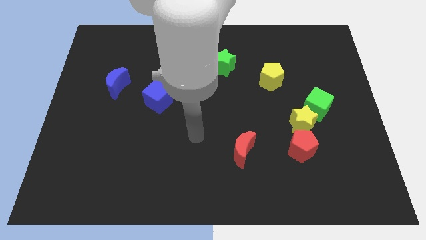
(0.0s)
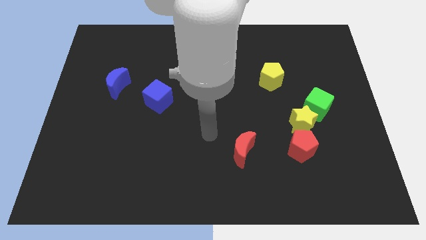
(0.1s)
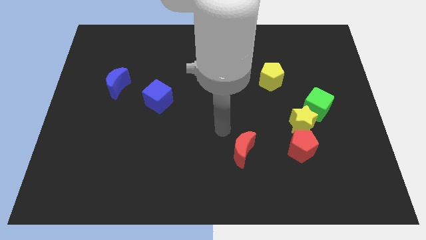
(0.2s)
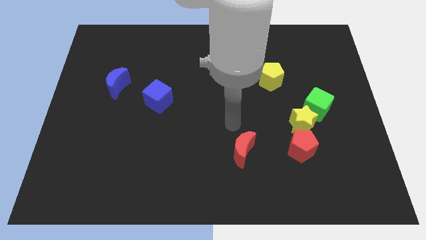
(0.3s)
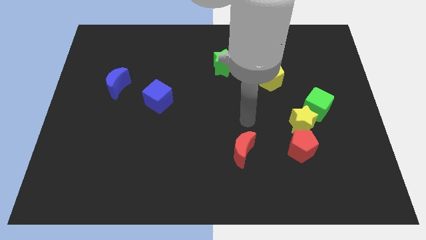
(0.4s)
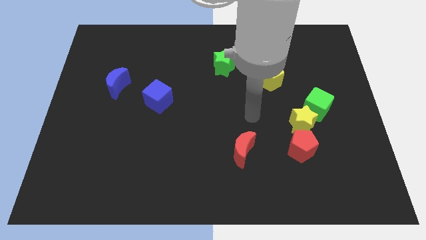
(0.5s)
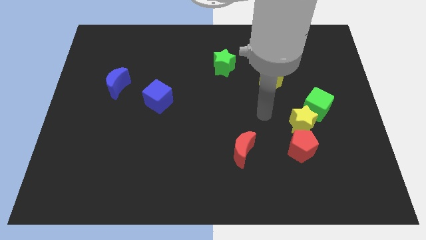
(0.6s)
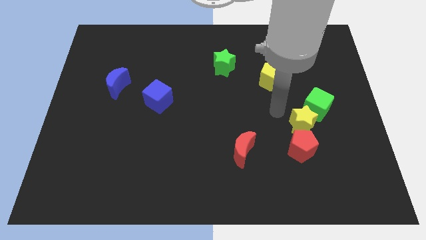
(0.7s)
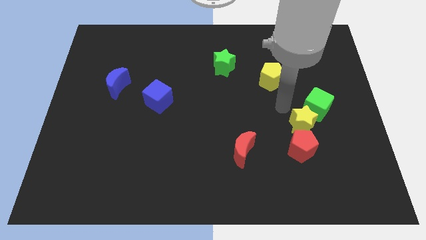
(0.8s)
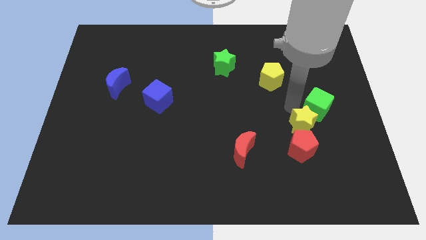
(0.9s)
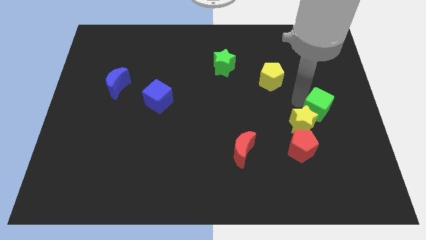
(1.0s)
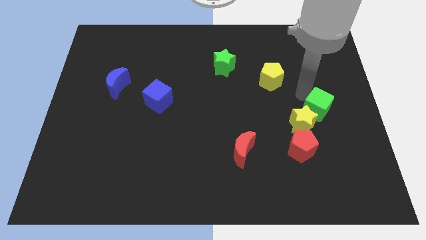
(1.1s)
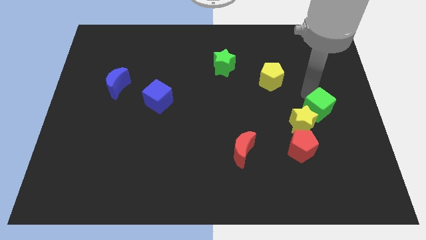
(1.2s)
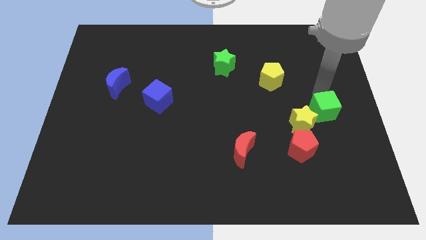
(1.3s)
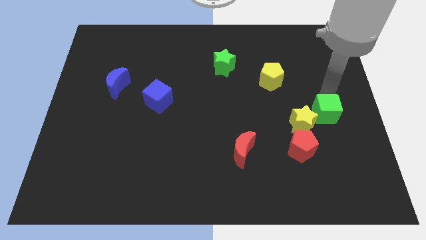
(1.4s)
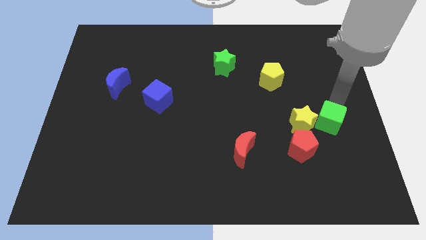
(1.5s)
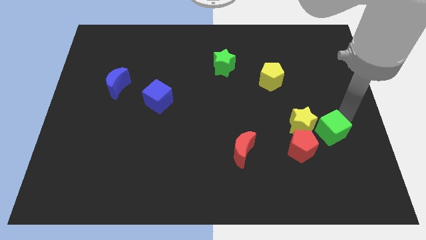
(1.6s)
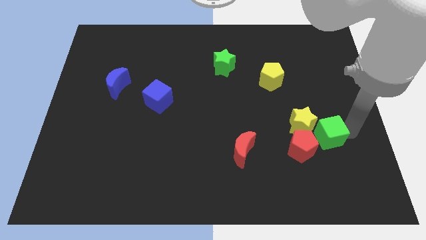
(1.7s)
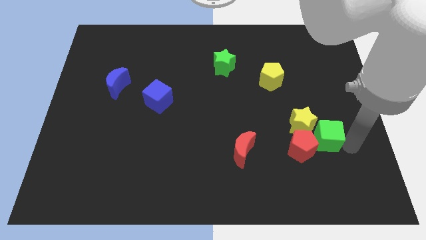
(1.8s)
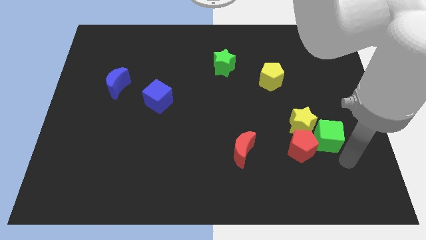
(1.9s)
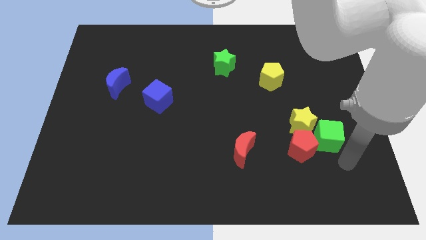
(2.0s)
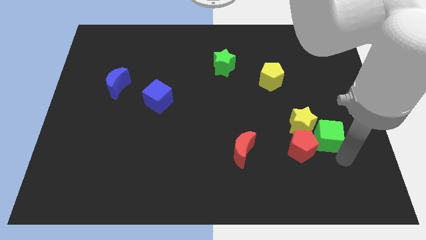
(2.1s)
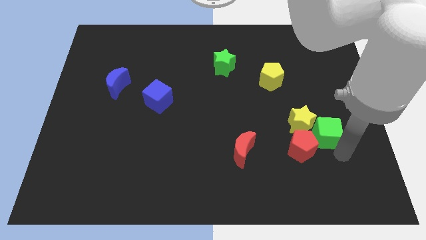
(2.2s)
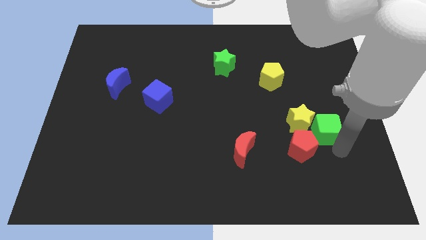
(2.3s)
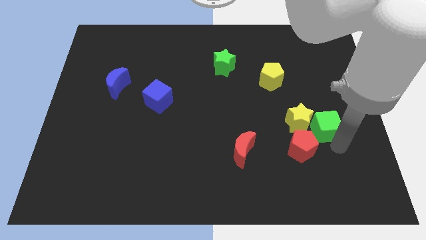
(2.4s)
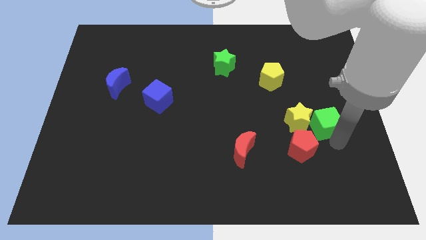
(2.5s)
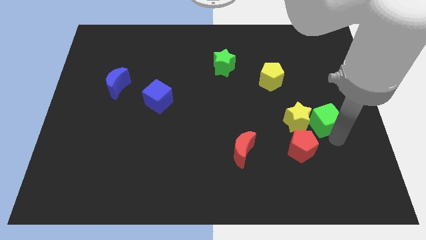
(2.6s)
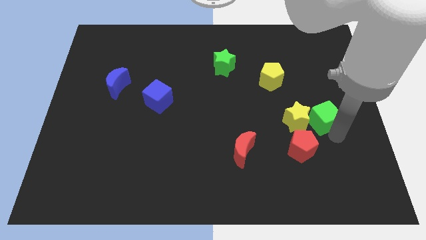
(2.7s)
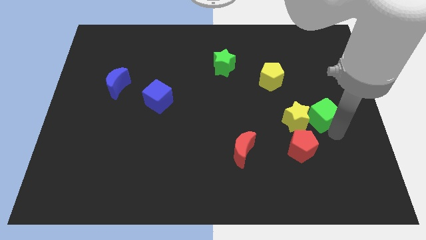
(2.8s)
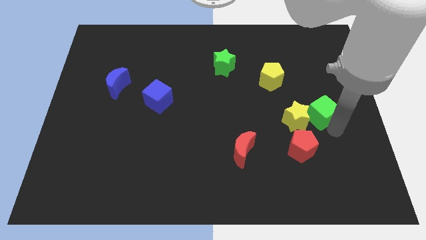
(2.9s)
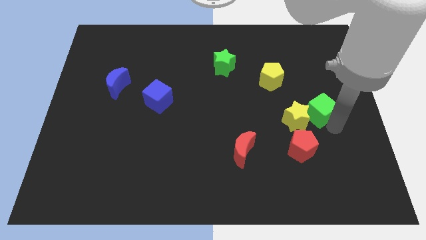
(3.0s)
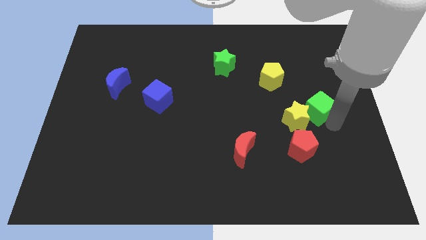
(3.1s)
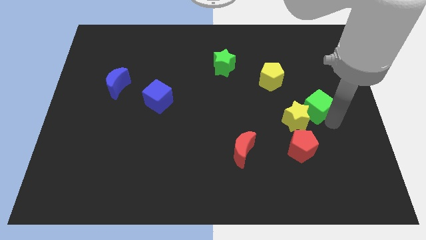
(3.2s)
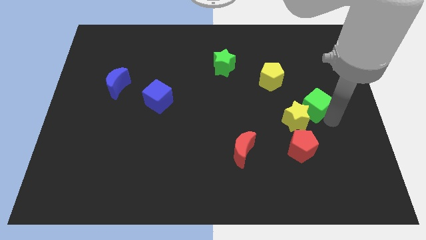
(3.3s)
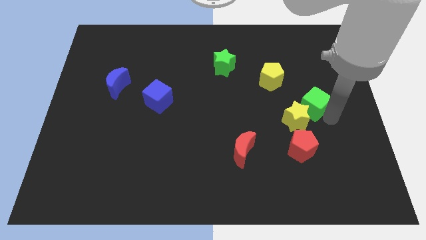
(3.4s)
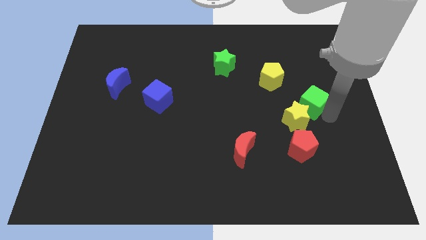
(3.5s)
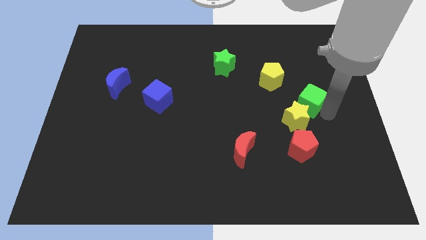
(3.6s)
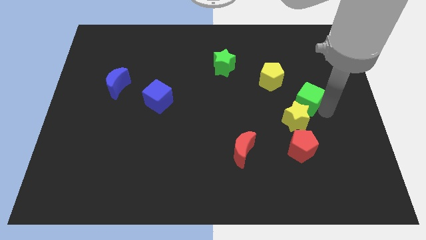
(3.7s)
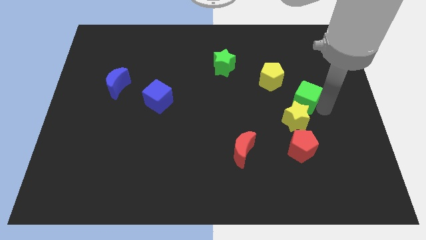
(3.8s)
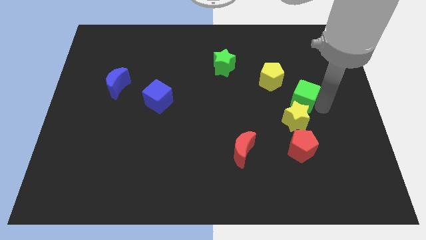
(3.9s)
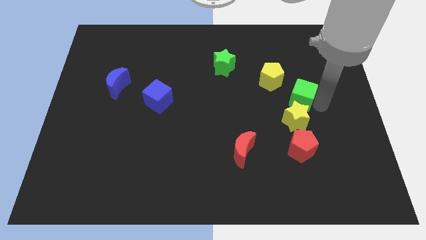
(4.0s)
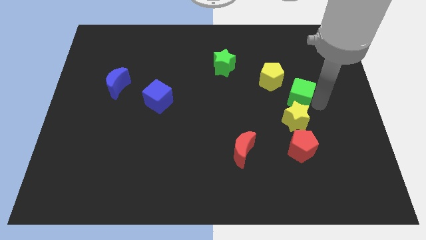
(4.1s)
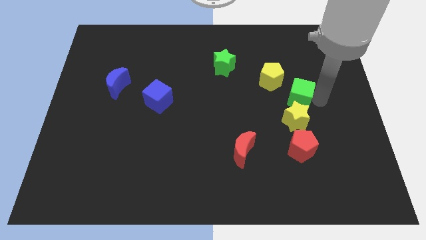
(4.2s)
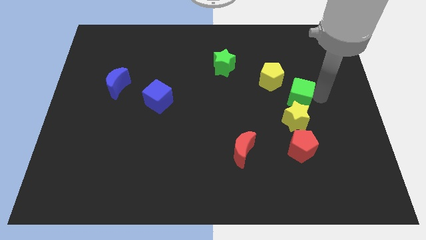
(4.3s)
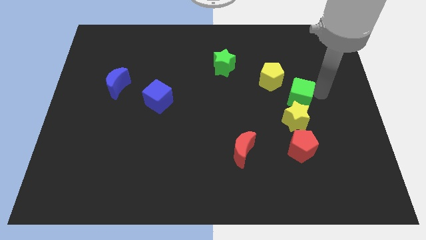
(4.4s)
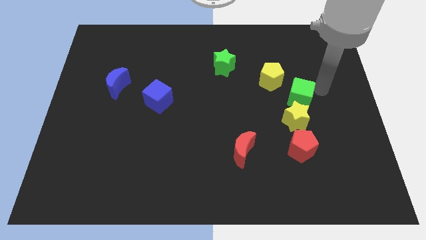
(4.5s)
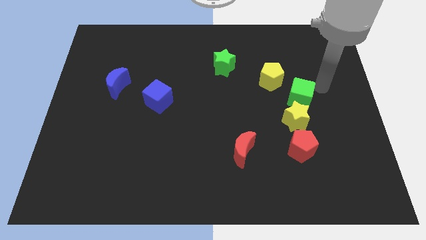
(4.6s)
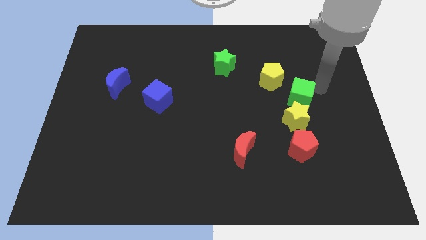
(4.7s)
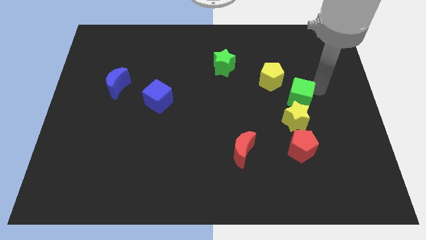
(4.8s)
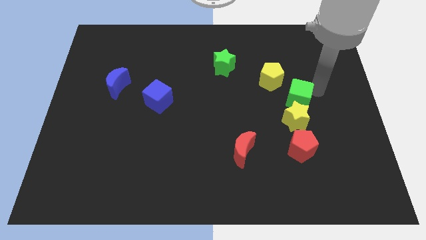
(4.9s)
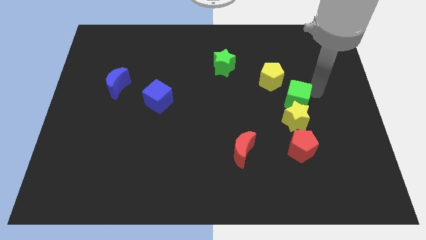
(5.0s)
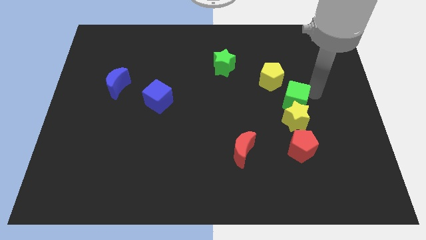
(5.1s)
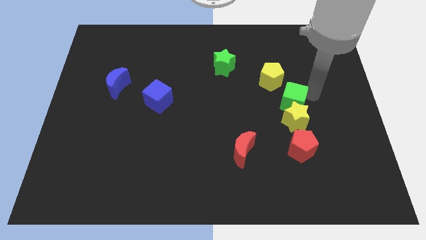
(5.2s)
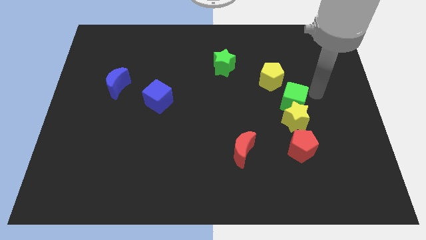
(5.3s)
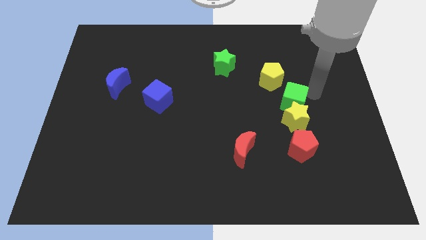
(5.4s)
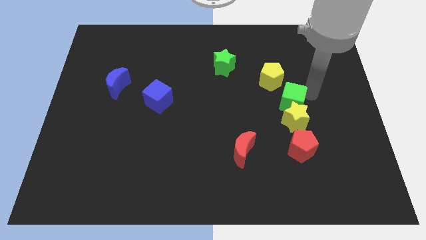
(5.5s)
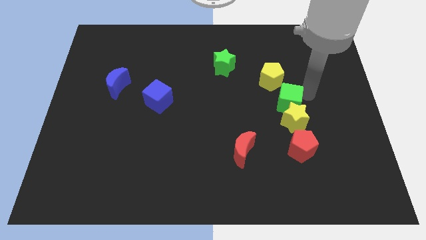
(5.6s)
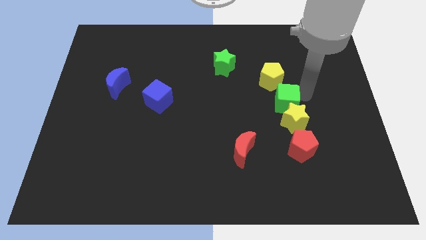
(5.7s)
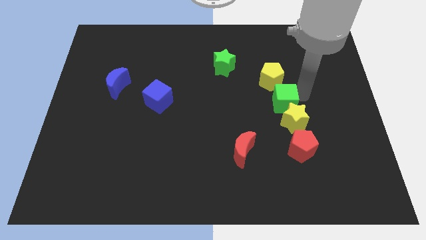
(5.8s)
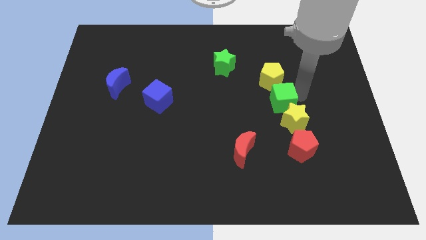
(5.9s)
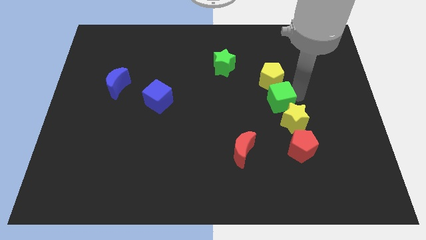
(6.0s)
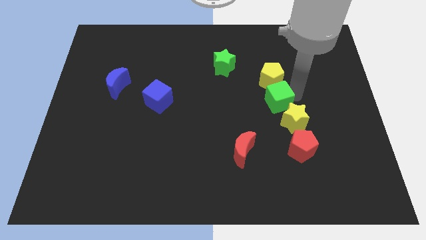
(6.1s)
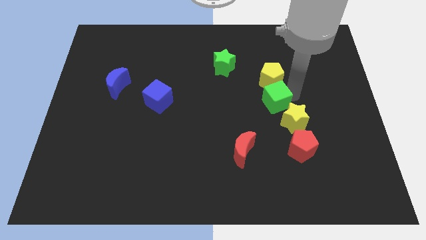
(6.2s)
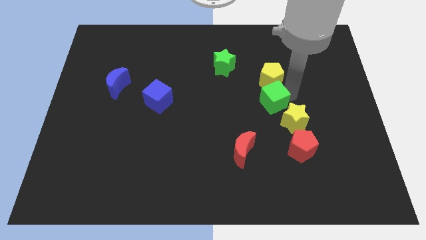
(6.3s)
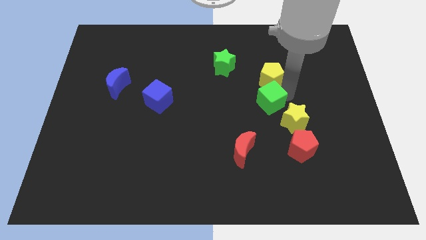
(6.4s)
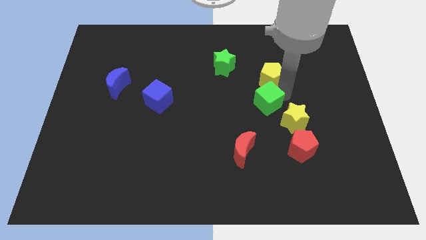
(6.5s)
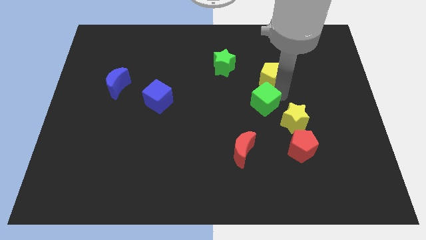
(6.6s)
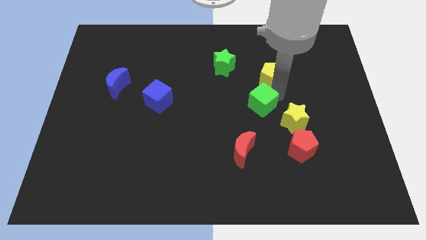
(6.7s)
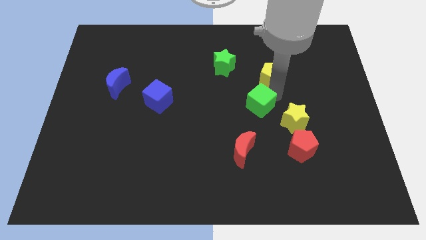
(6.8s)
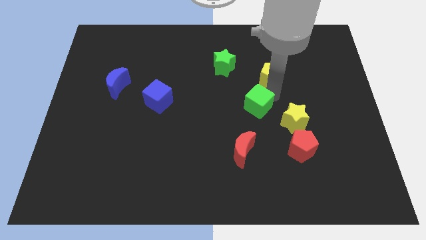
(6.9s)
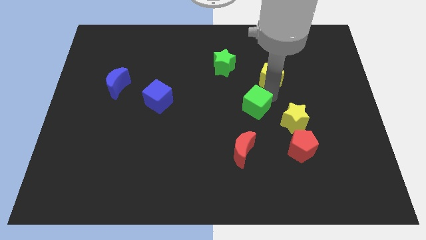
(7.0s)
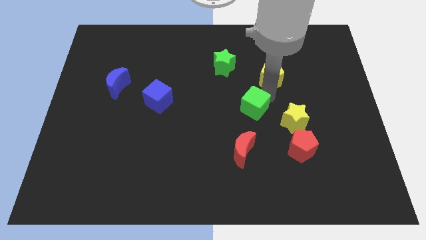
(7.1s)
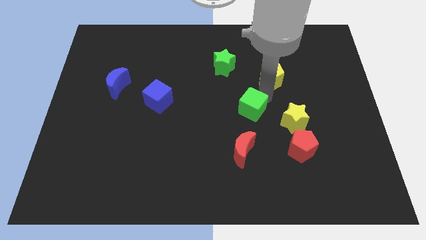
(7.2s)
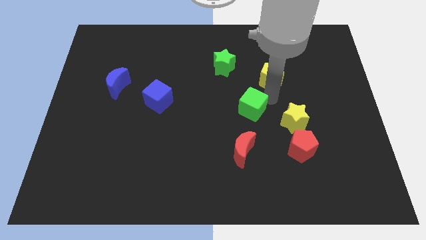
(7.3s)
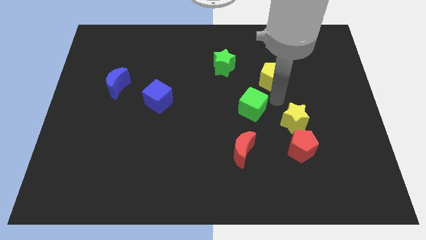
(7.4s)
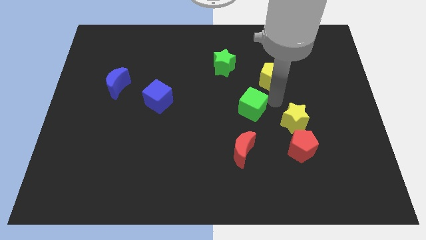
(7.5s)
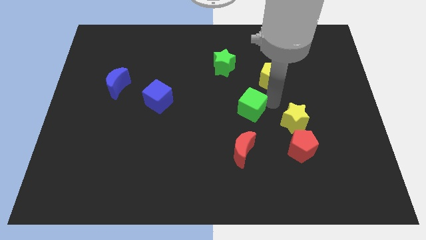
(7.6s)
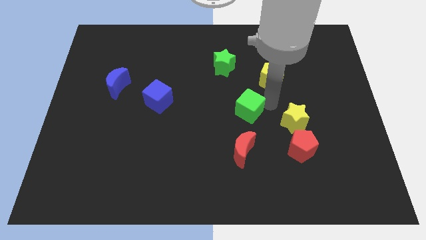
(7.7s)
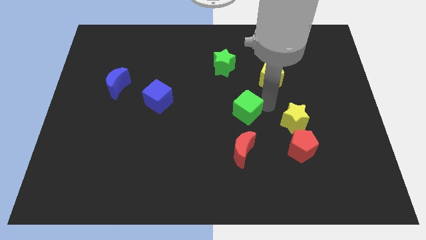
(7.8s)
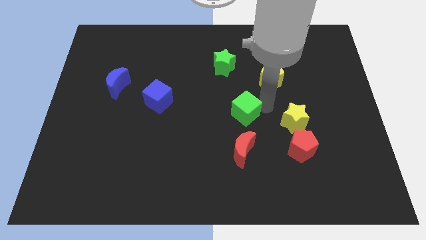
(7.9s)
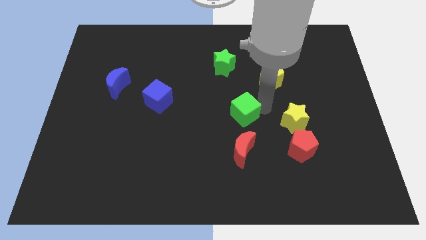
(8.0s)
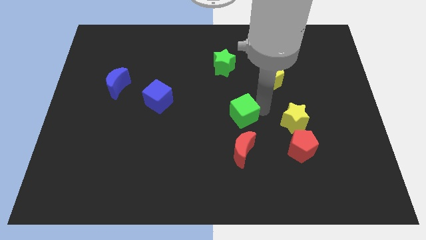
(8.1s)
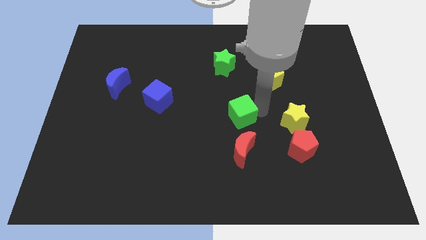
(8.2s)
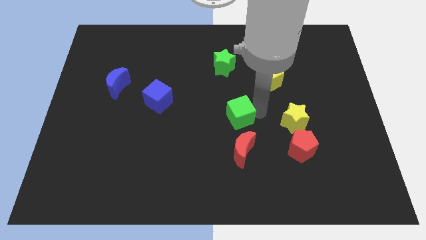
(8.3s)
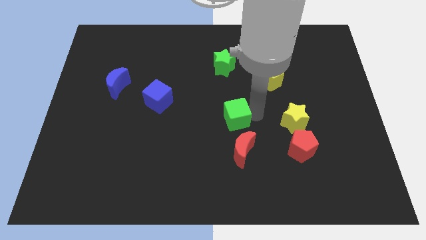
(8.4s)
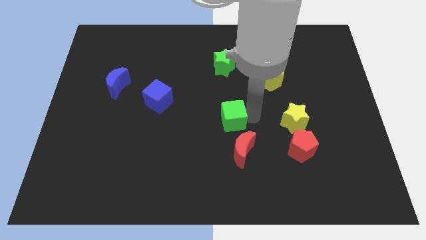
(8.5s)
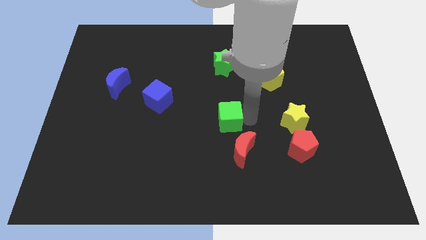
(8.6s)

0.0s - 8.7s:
move the green cube to the left
